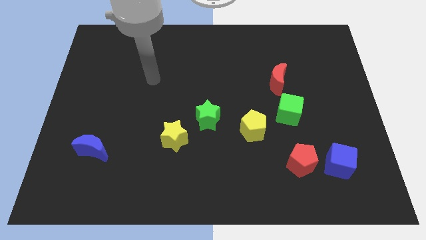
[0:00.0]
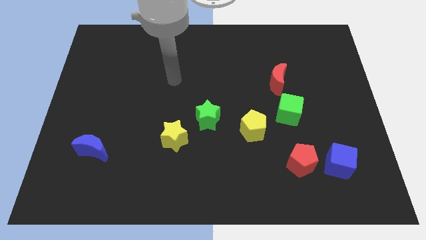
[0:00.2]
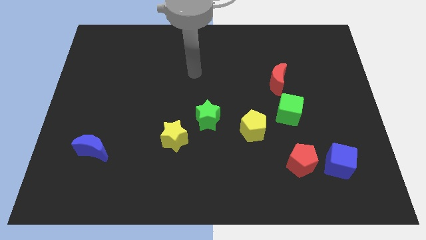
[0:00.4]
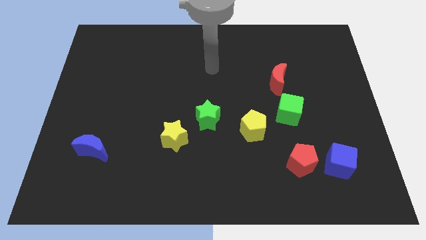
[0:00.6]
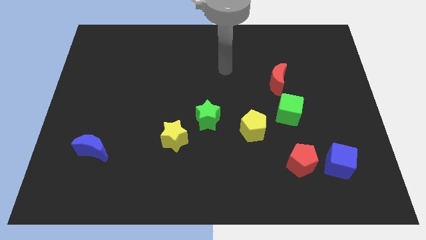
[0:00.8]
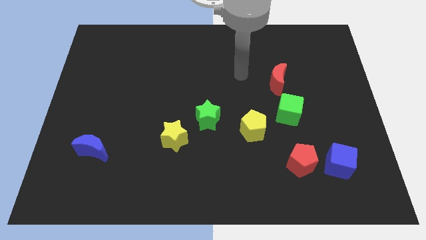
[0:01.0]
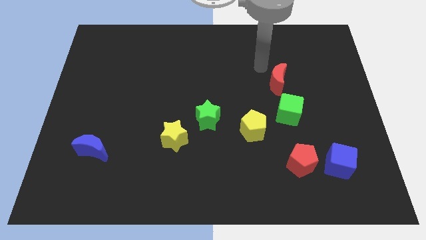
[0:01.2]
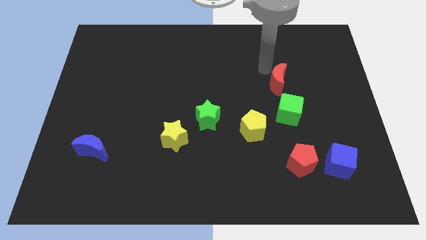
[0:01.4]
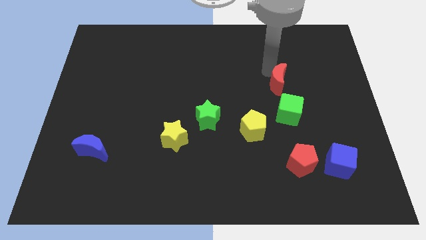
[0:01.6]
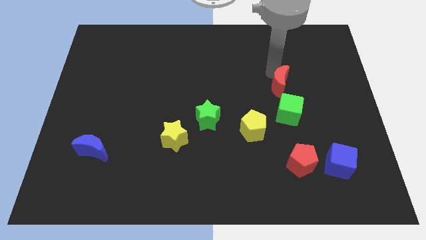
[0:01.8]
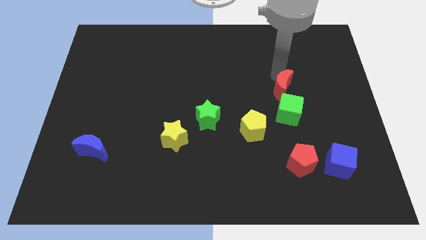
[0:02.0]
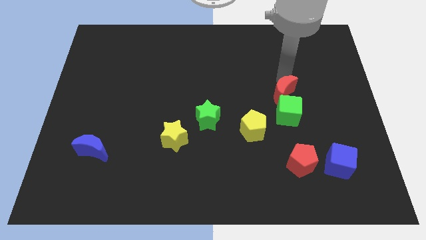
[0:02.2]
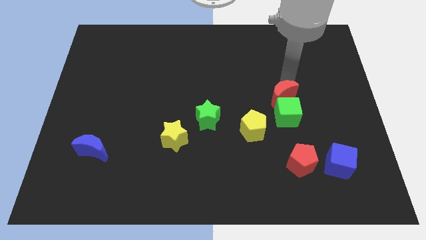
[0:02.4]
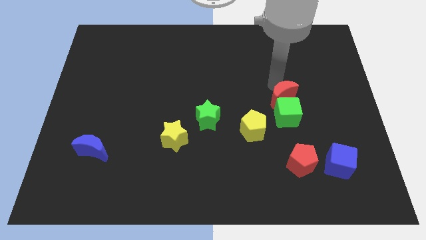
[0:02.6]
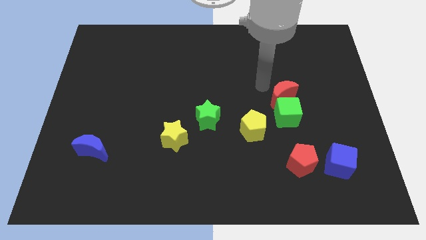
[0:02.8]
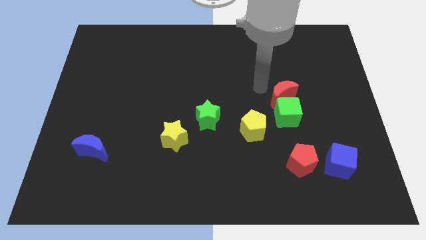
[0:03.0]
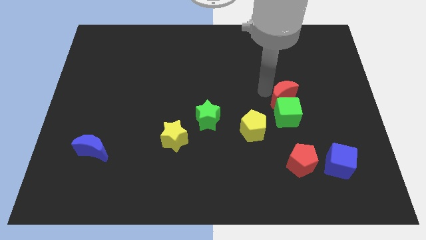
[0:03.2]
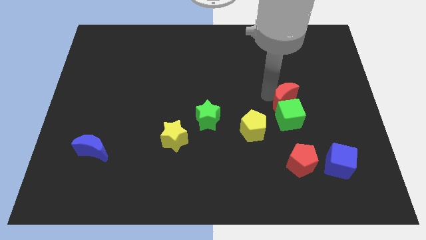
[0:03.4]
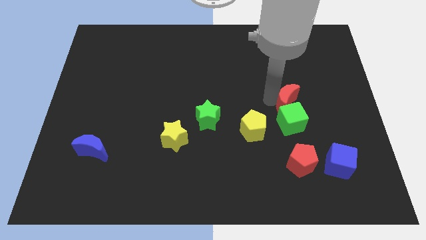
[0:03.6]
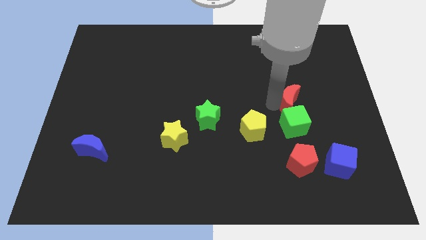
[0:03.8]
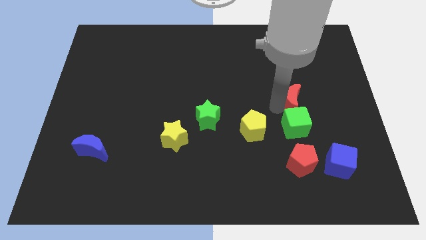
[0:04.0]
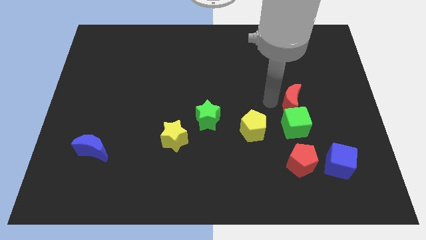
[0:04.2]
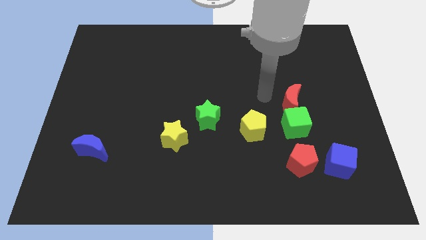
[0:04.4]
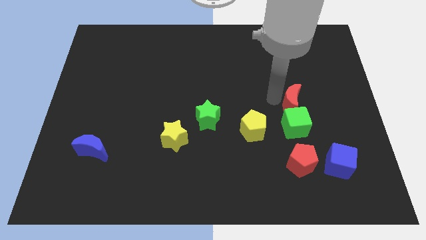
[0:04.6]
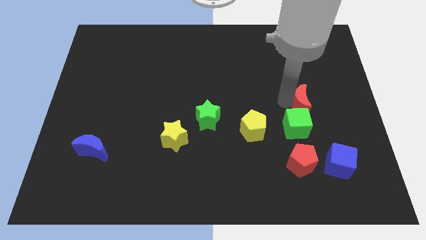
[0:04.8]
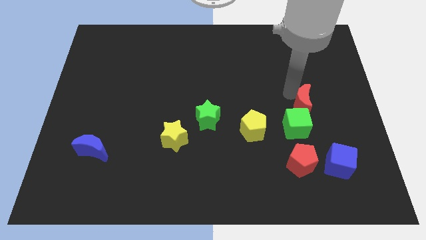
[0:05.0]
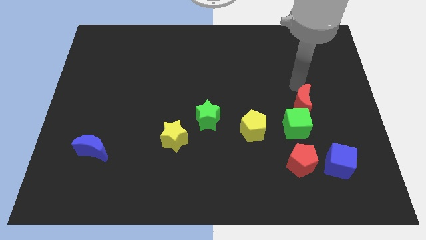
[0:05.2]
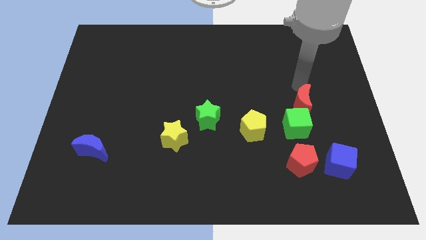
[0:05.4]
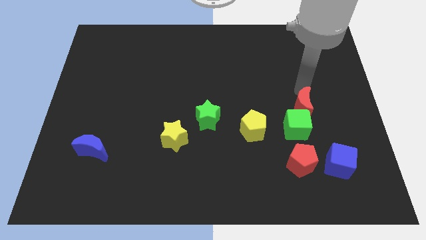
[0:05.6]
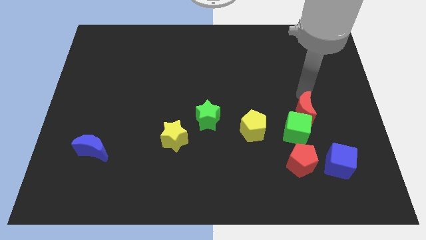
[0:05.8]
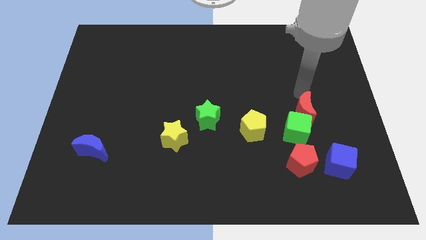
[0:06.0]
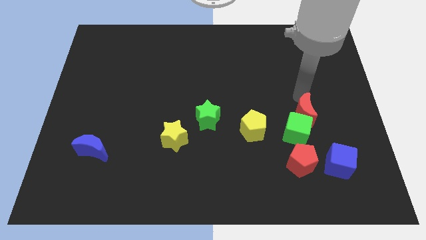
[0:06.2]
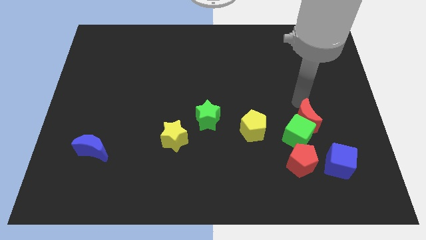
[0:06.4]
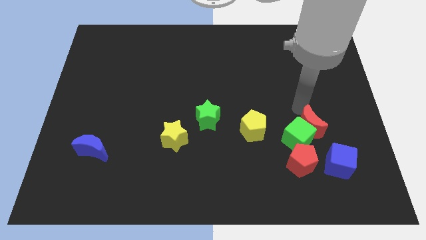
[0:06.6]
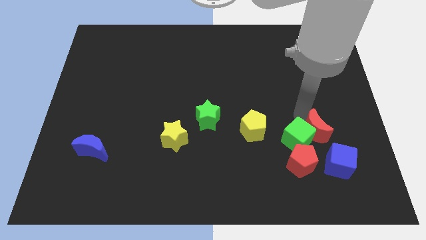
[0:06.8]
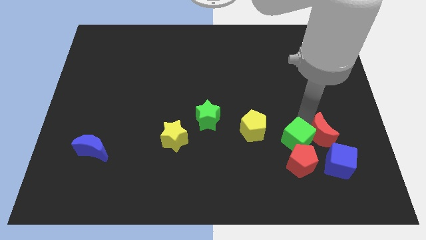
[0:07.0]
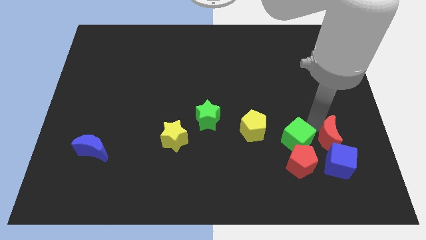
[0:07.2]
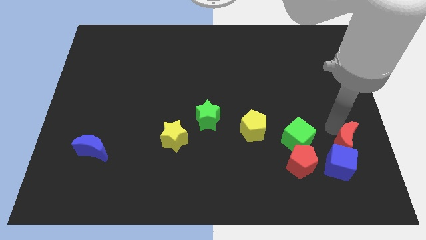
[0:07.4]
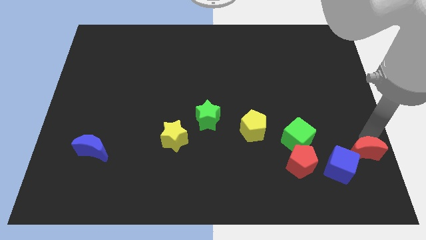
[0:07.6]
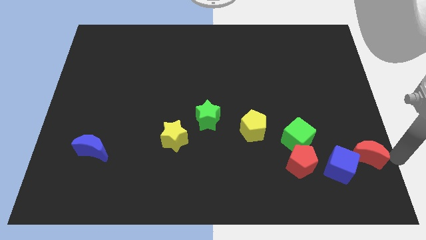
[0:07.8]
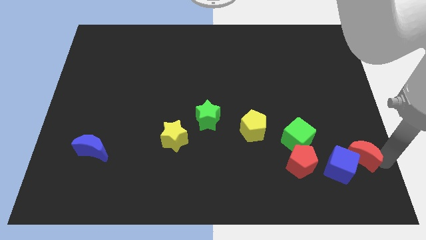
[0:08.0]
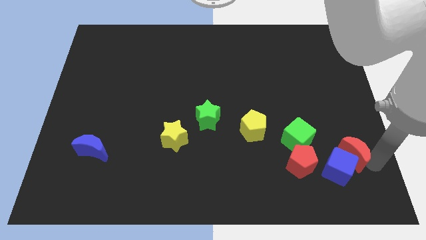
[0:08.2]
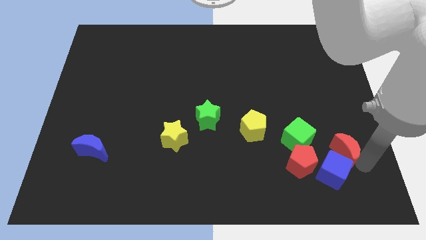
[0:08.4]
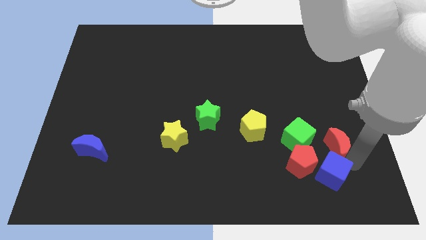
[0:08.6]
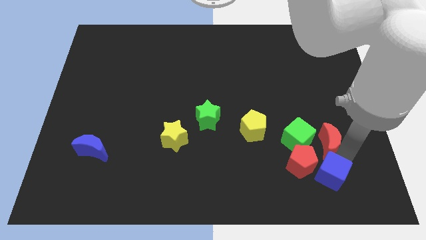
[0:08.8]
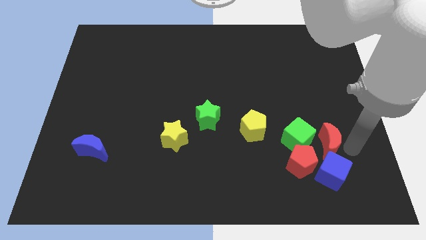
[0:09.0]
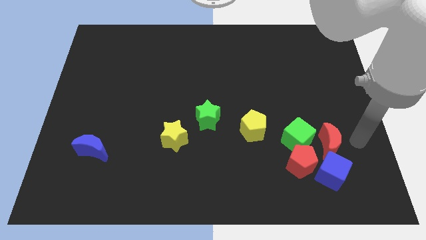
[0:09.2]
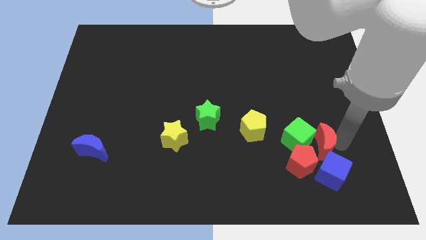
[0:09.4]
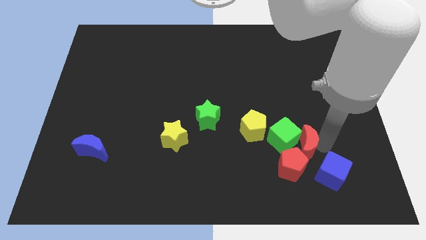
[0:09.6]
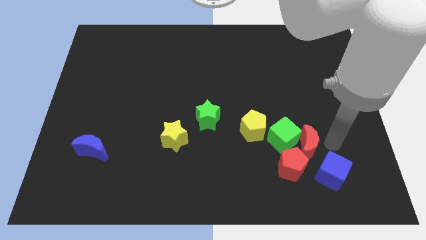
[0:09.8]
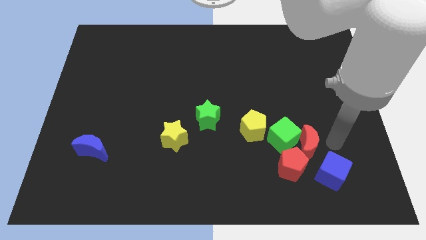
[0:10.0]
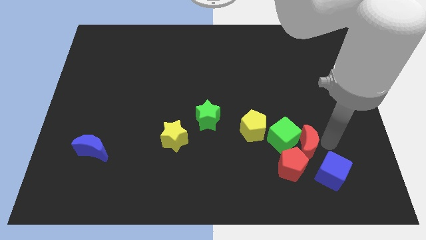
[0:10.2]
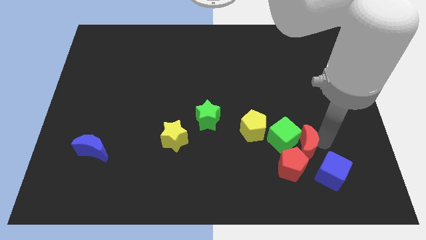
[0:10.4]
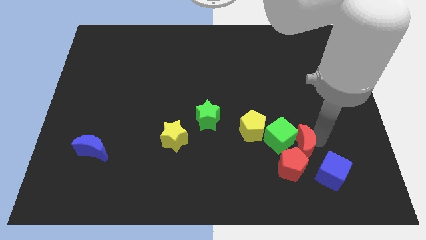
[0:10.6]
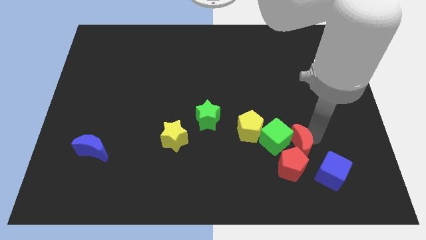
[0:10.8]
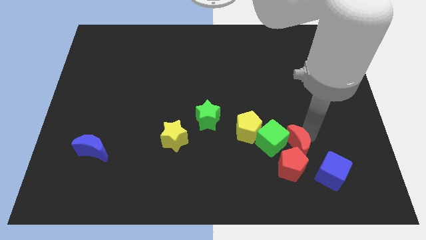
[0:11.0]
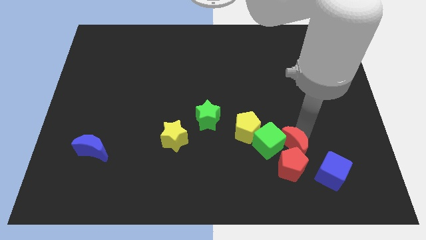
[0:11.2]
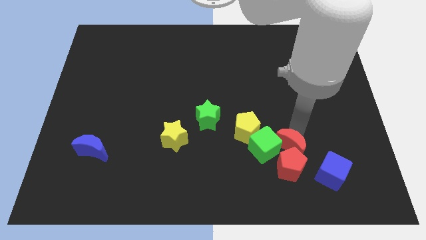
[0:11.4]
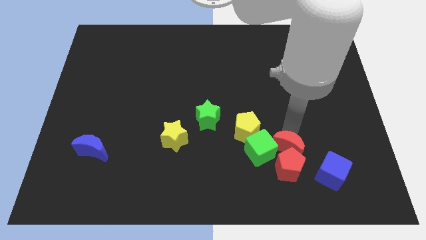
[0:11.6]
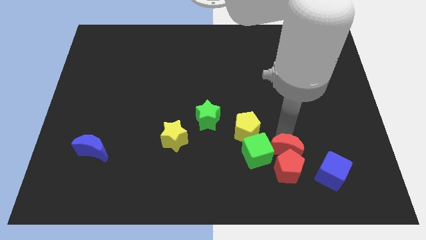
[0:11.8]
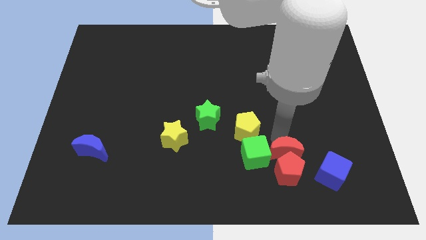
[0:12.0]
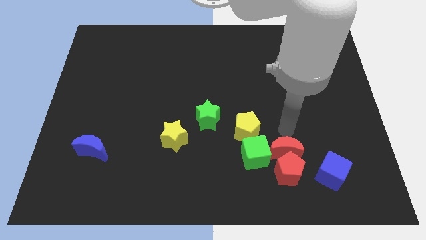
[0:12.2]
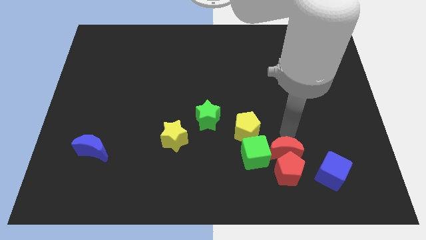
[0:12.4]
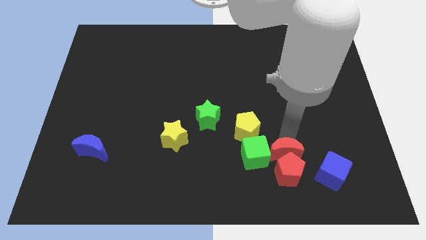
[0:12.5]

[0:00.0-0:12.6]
slide the red moon to the left of the blue cube
